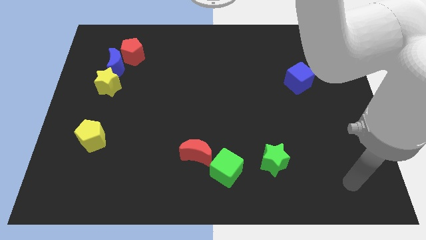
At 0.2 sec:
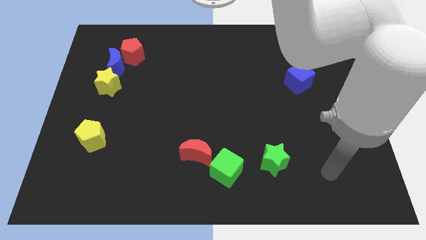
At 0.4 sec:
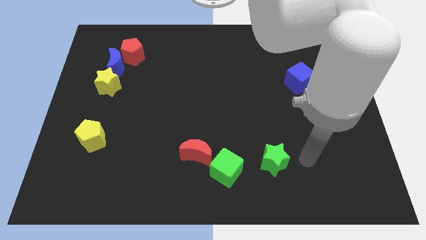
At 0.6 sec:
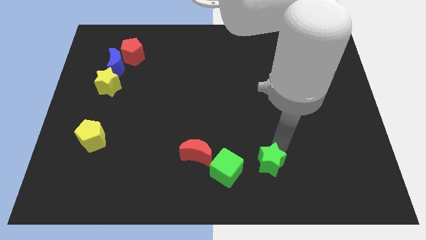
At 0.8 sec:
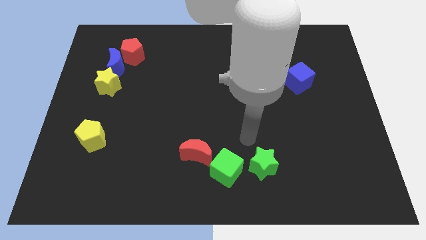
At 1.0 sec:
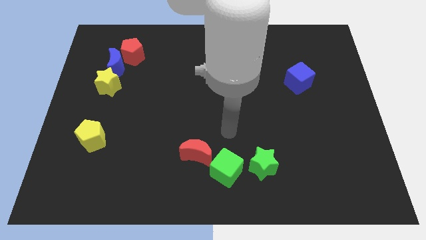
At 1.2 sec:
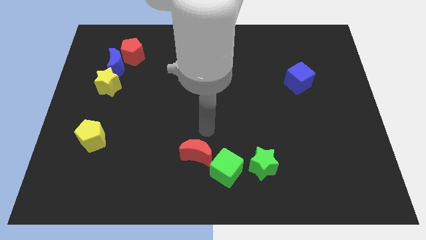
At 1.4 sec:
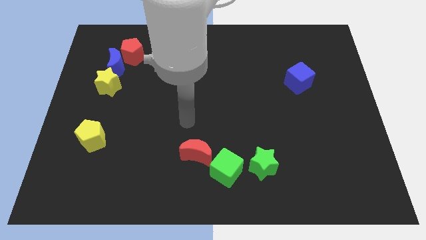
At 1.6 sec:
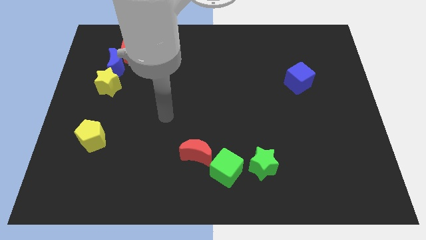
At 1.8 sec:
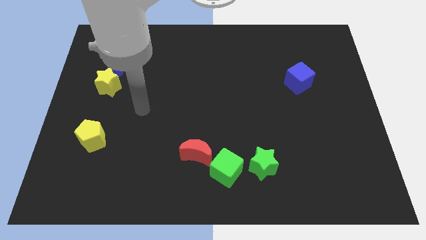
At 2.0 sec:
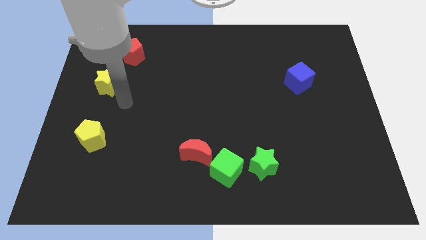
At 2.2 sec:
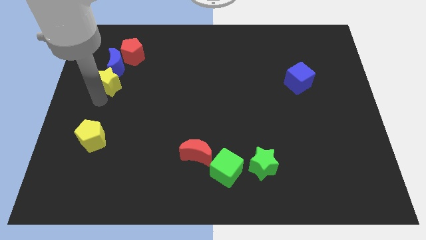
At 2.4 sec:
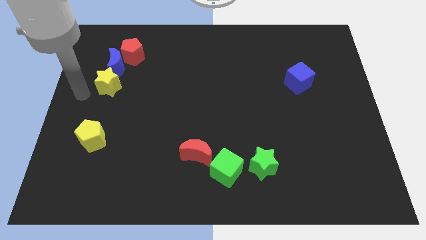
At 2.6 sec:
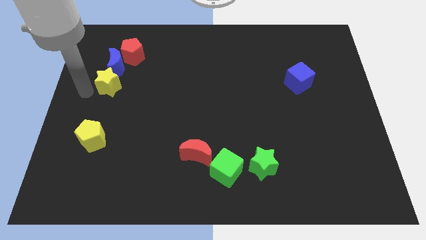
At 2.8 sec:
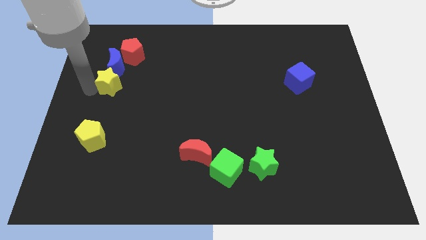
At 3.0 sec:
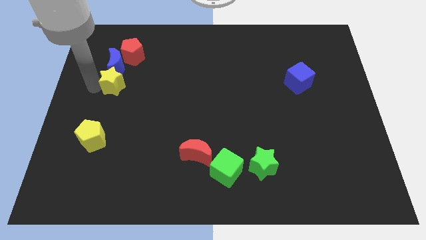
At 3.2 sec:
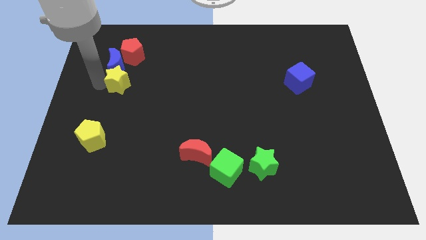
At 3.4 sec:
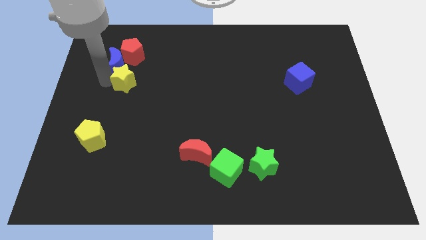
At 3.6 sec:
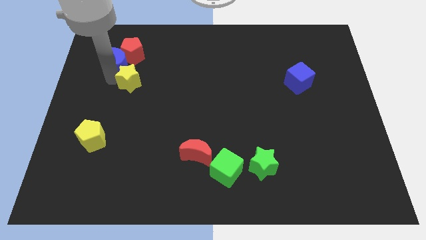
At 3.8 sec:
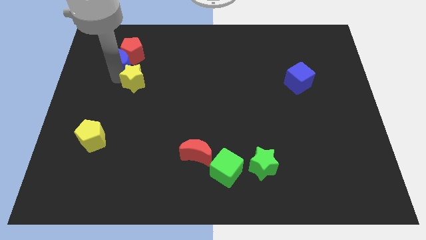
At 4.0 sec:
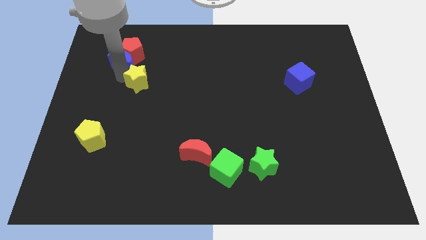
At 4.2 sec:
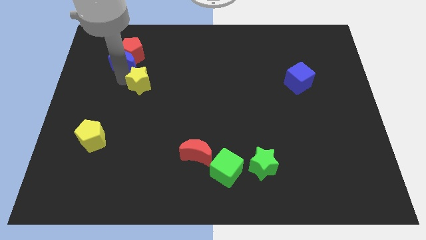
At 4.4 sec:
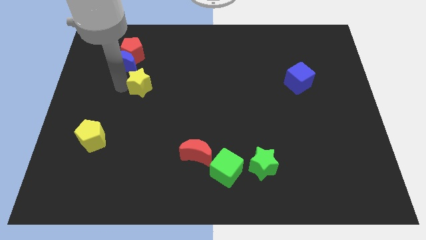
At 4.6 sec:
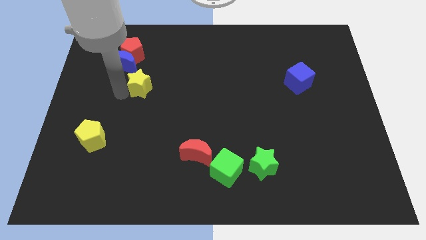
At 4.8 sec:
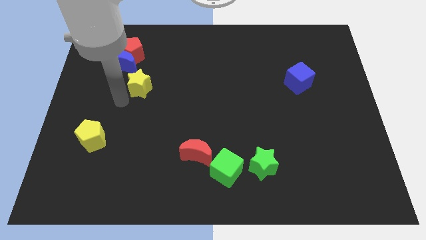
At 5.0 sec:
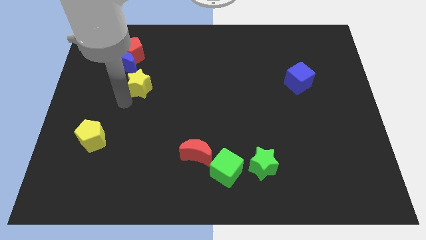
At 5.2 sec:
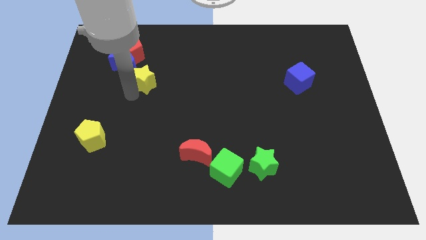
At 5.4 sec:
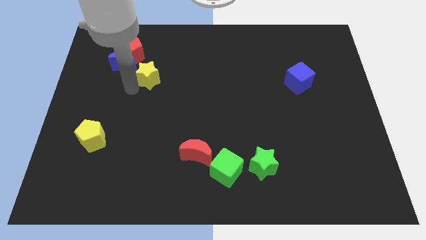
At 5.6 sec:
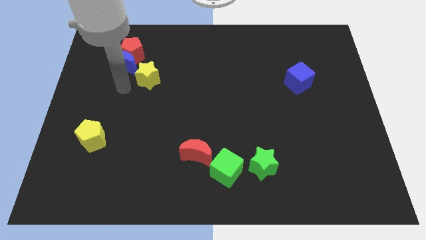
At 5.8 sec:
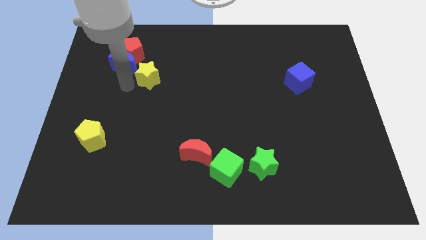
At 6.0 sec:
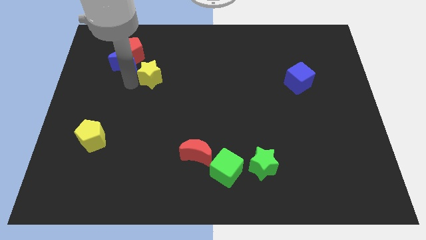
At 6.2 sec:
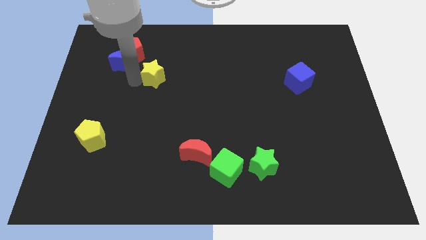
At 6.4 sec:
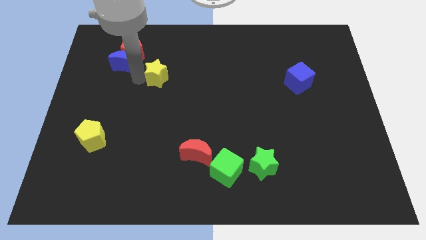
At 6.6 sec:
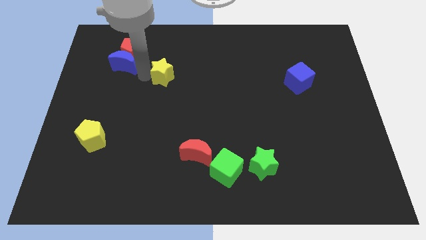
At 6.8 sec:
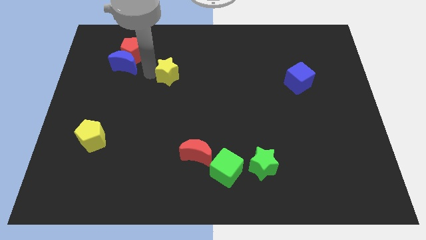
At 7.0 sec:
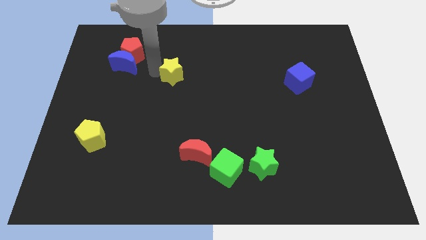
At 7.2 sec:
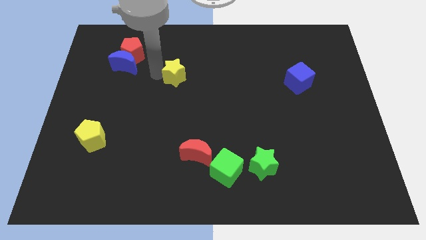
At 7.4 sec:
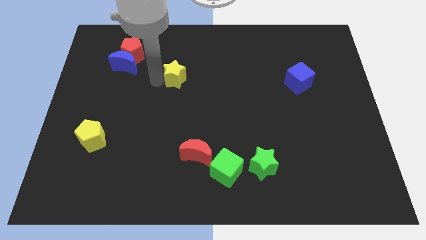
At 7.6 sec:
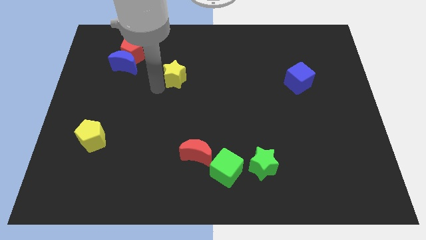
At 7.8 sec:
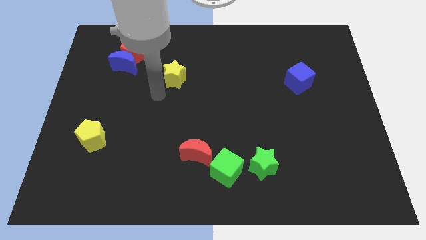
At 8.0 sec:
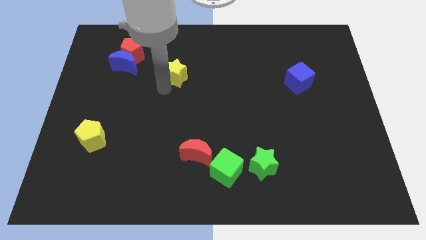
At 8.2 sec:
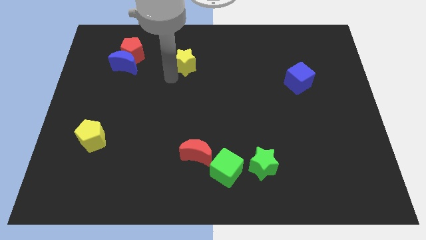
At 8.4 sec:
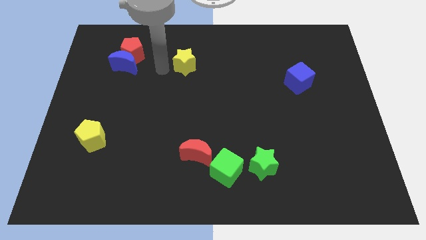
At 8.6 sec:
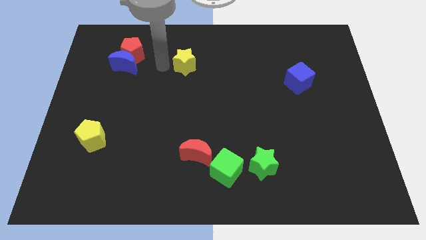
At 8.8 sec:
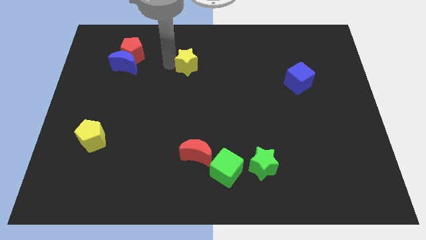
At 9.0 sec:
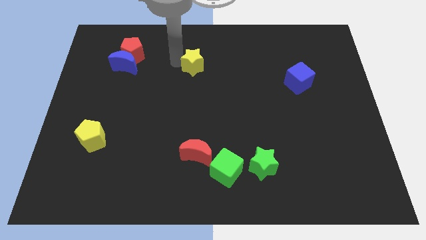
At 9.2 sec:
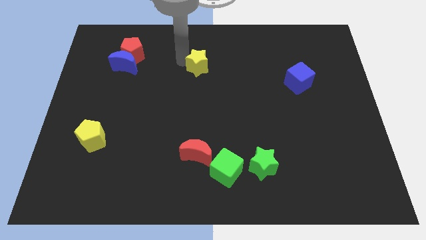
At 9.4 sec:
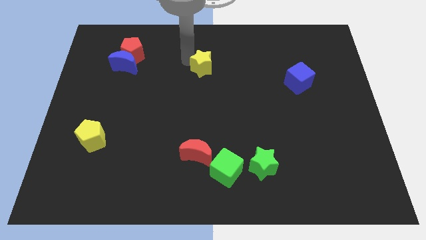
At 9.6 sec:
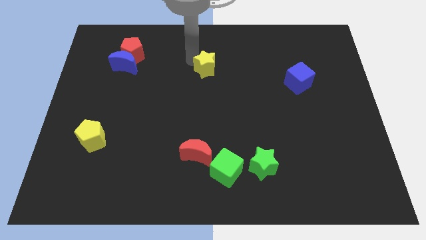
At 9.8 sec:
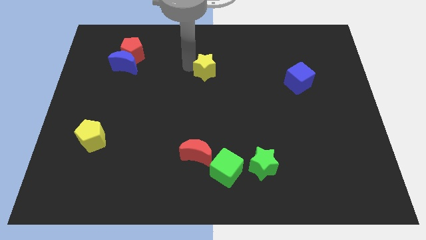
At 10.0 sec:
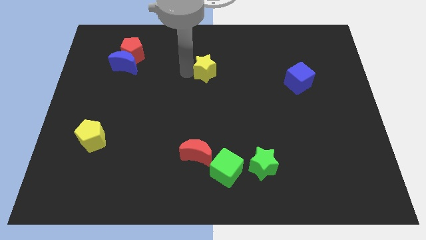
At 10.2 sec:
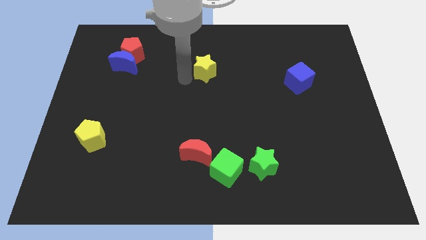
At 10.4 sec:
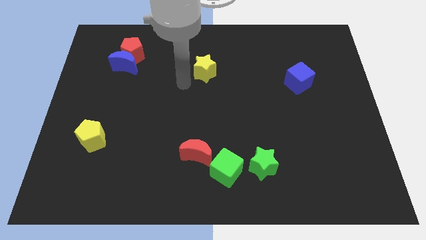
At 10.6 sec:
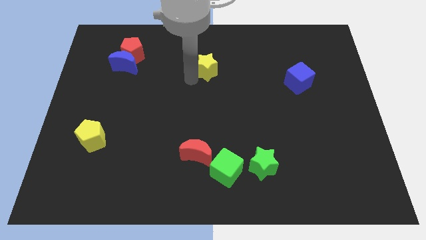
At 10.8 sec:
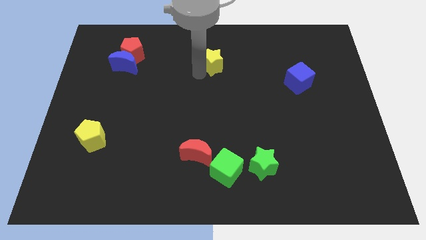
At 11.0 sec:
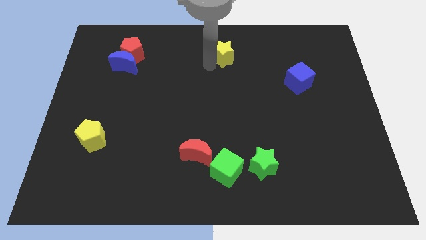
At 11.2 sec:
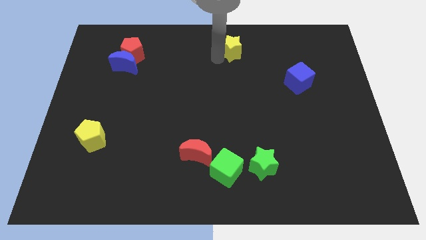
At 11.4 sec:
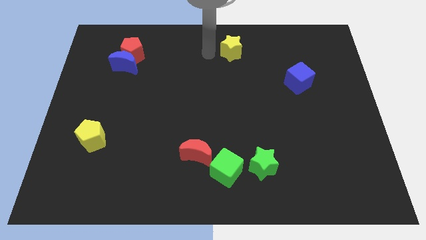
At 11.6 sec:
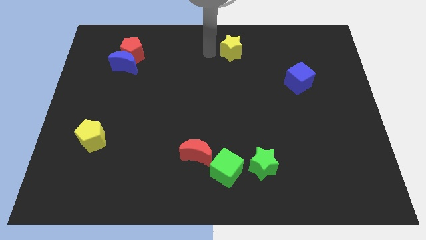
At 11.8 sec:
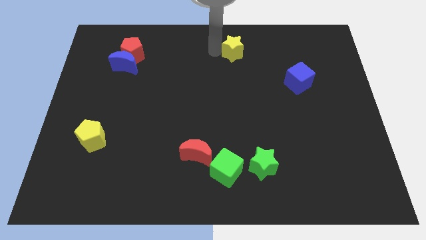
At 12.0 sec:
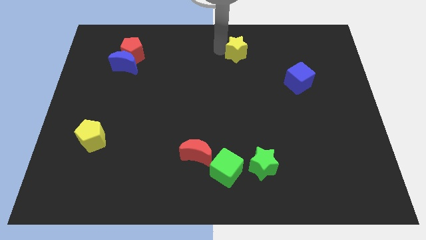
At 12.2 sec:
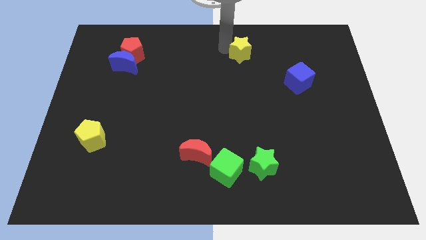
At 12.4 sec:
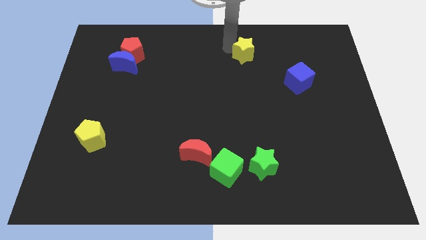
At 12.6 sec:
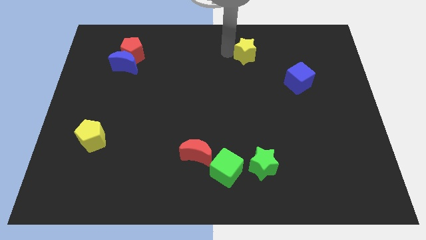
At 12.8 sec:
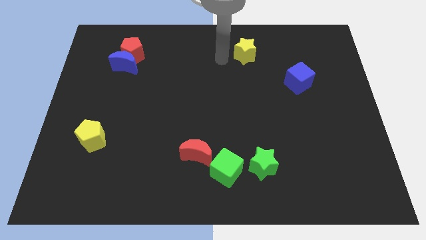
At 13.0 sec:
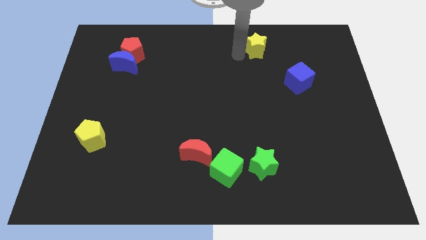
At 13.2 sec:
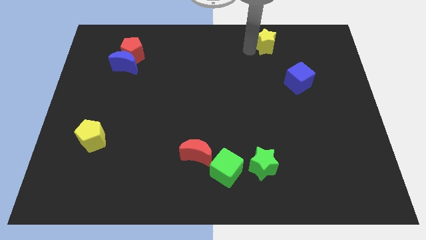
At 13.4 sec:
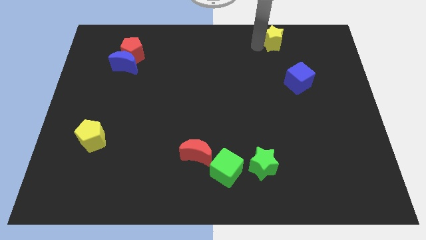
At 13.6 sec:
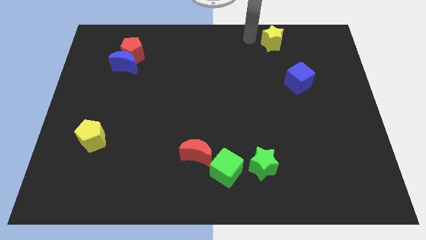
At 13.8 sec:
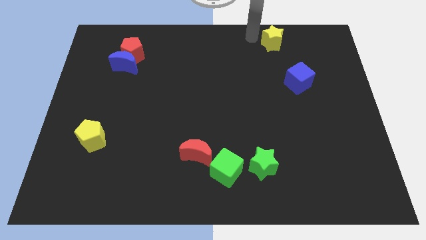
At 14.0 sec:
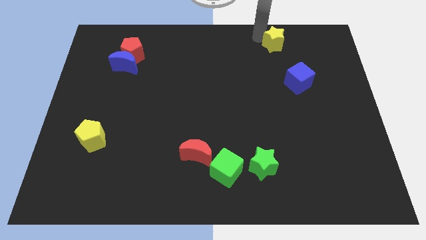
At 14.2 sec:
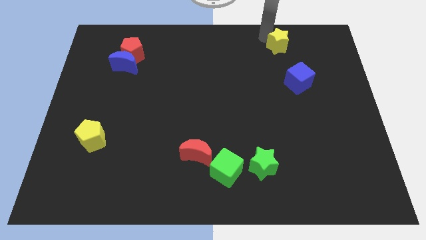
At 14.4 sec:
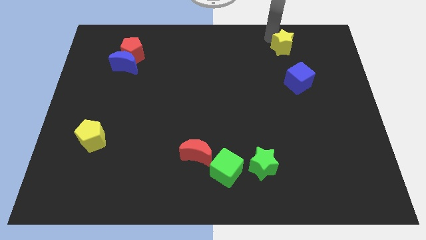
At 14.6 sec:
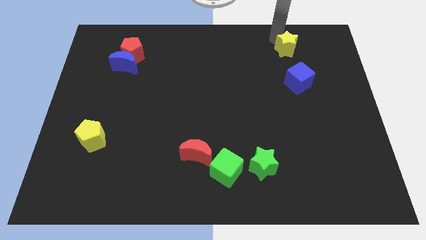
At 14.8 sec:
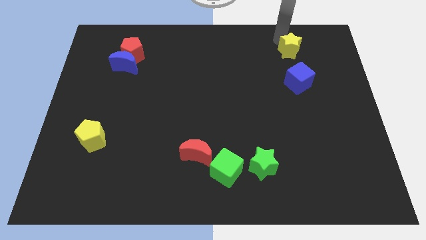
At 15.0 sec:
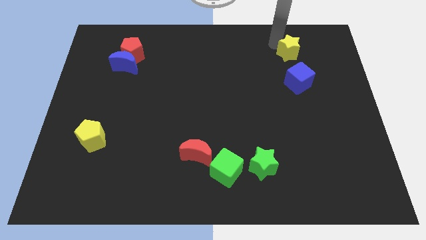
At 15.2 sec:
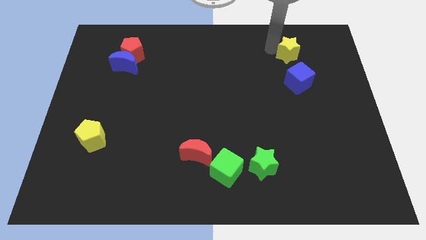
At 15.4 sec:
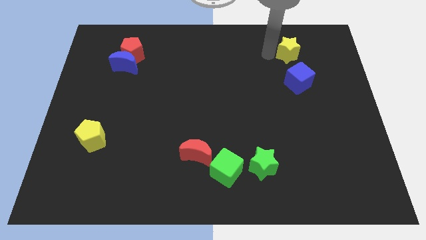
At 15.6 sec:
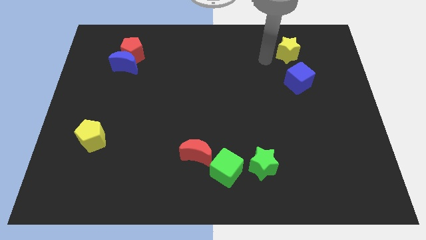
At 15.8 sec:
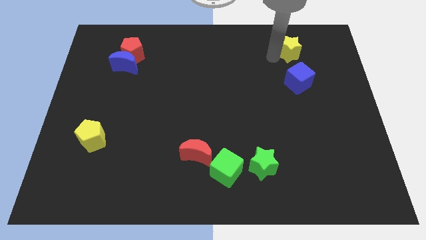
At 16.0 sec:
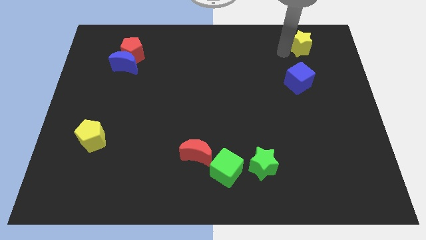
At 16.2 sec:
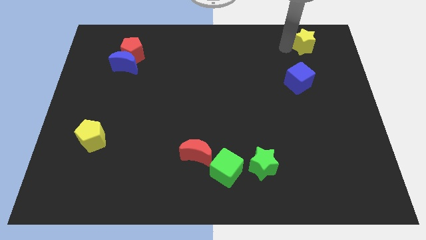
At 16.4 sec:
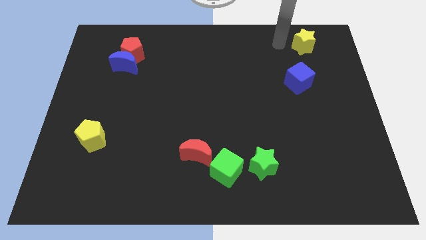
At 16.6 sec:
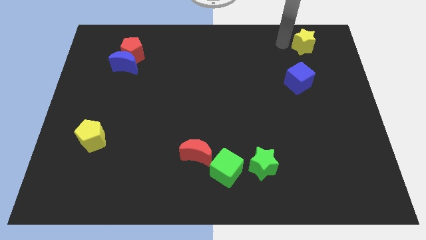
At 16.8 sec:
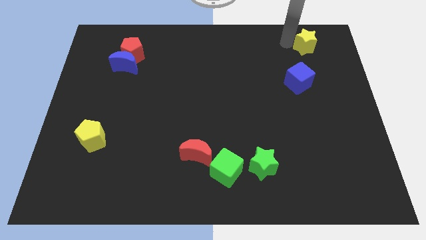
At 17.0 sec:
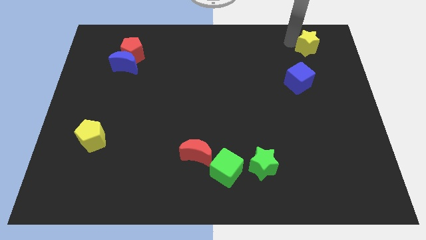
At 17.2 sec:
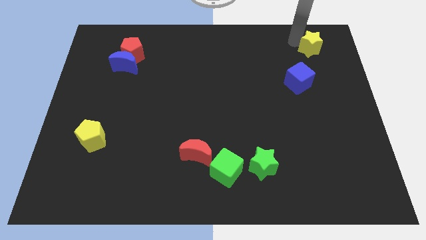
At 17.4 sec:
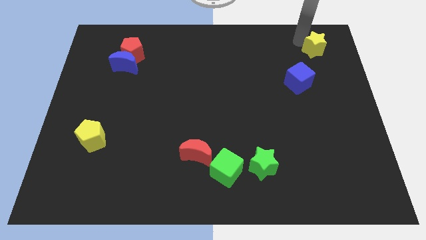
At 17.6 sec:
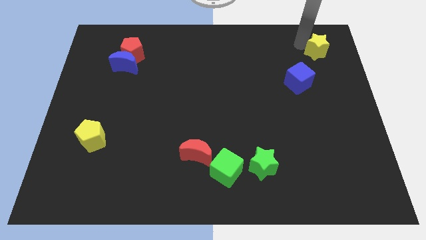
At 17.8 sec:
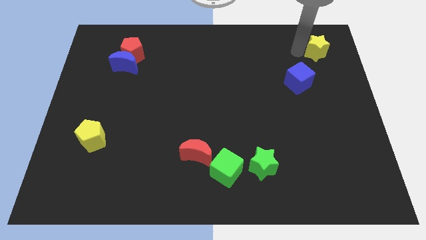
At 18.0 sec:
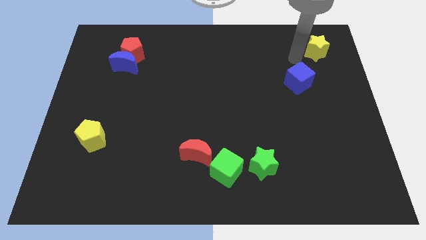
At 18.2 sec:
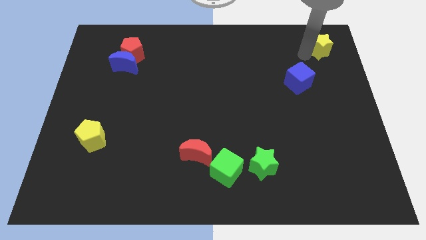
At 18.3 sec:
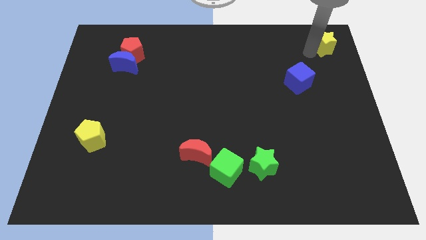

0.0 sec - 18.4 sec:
slide the yellow star to the top right of the board
